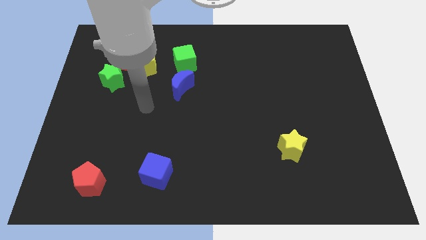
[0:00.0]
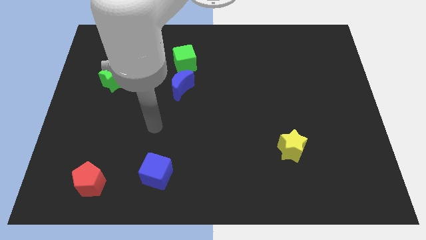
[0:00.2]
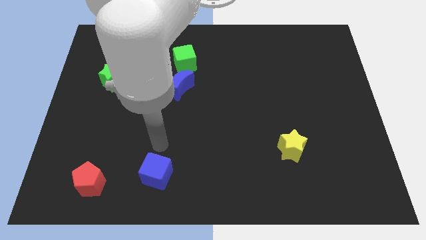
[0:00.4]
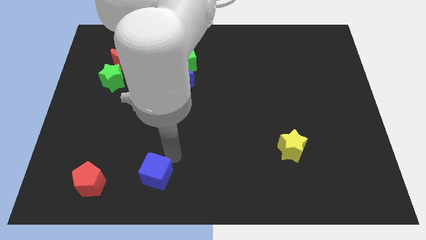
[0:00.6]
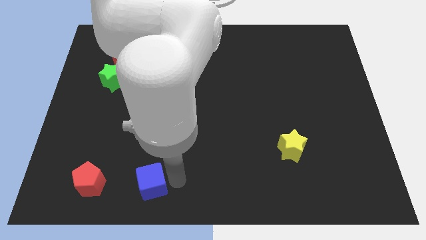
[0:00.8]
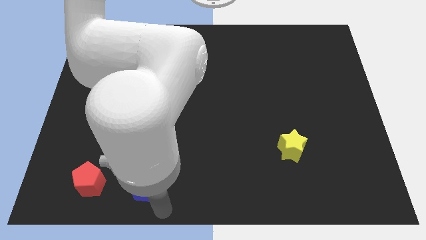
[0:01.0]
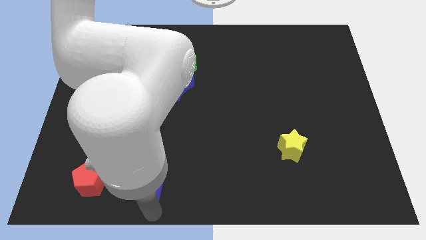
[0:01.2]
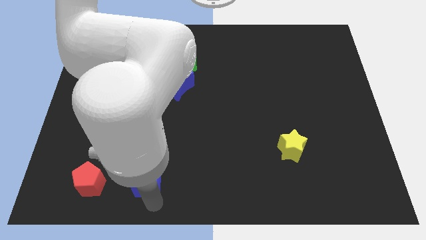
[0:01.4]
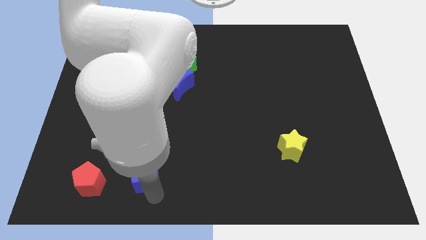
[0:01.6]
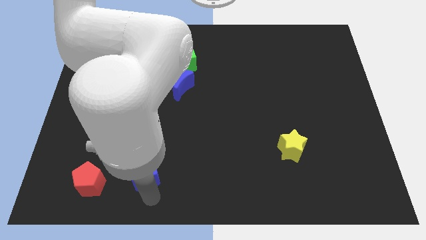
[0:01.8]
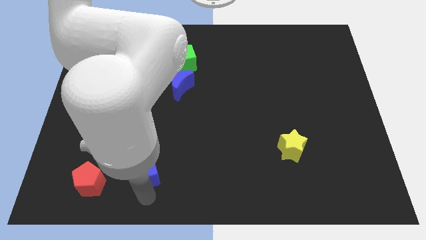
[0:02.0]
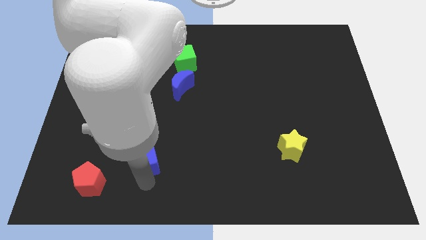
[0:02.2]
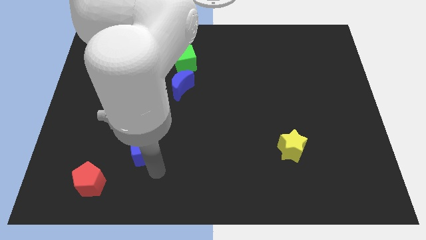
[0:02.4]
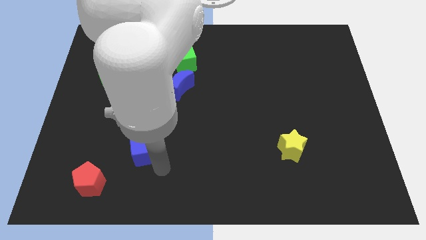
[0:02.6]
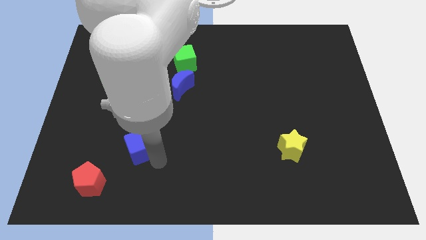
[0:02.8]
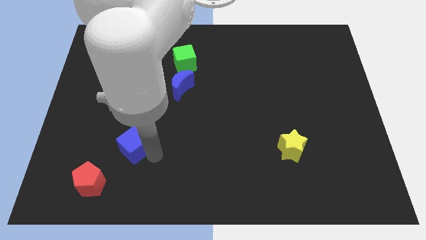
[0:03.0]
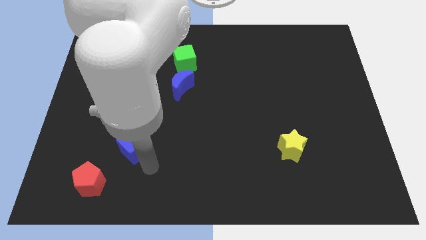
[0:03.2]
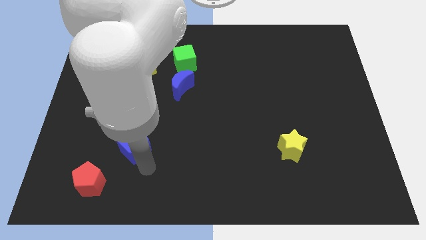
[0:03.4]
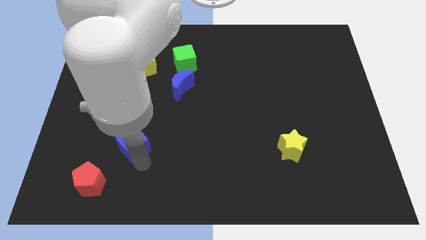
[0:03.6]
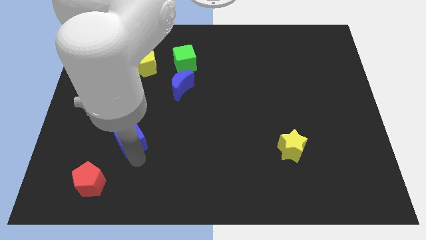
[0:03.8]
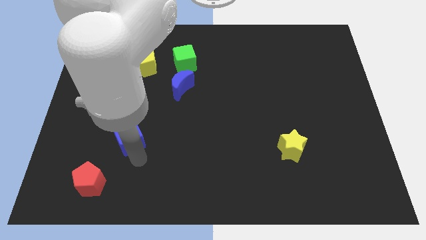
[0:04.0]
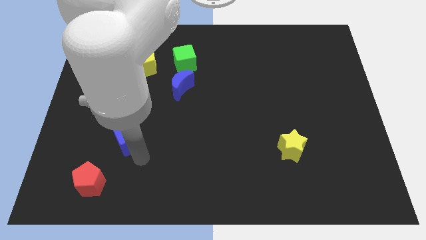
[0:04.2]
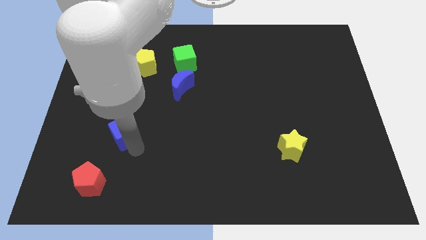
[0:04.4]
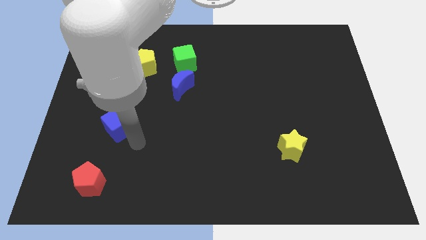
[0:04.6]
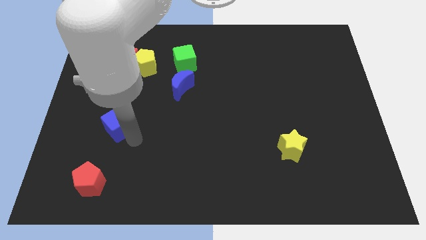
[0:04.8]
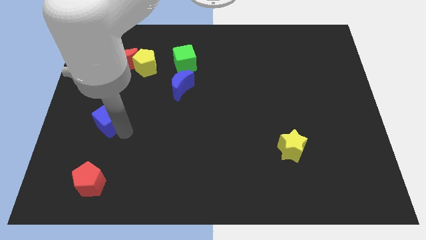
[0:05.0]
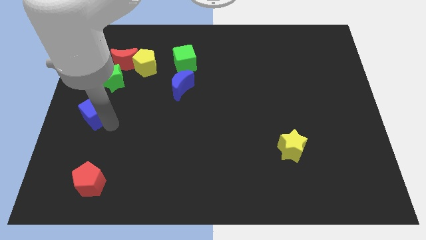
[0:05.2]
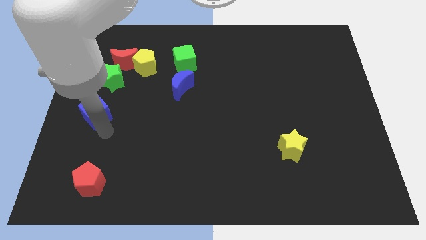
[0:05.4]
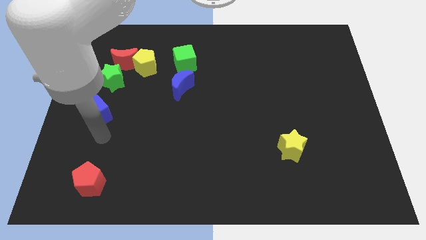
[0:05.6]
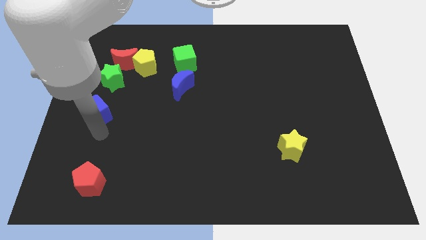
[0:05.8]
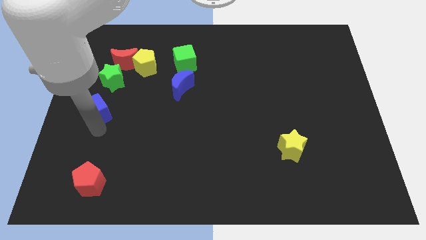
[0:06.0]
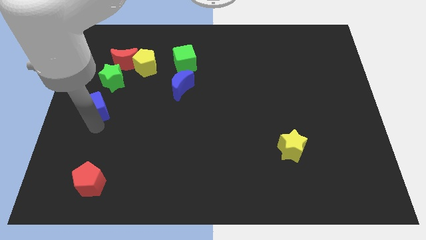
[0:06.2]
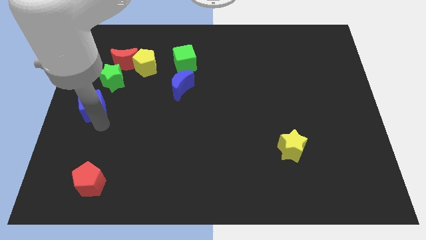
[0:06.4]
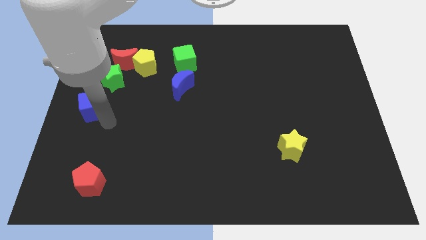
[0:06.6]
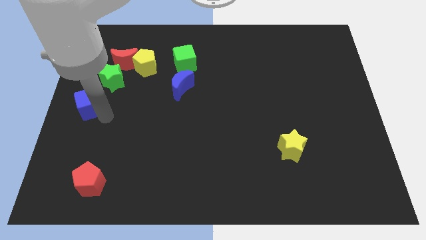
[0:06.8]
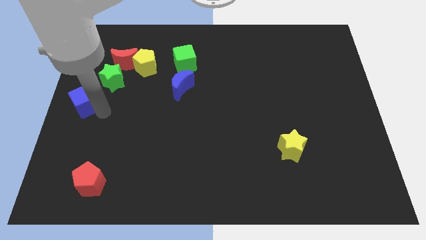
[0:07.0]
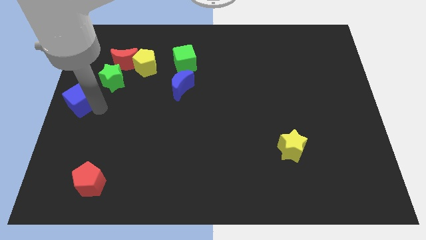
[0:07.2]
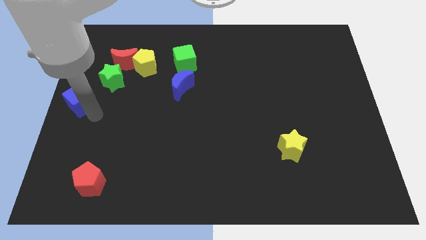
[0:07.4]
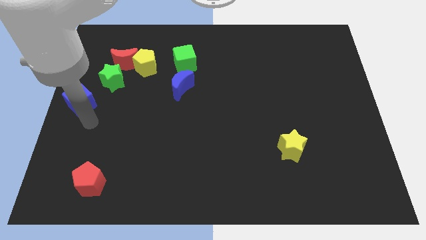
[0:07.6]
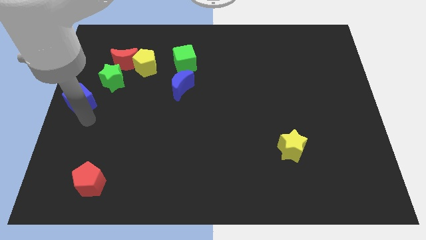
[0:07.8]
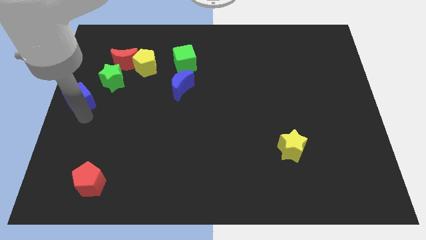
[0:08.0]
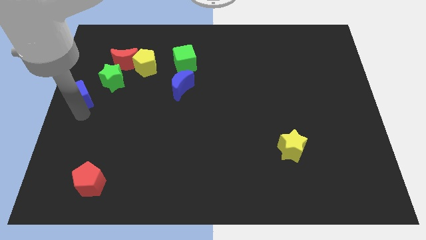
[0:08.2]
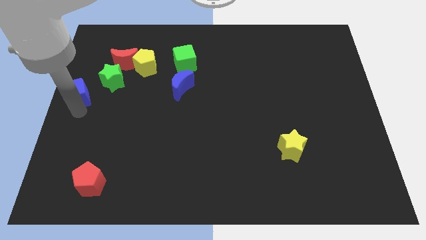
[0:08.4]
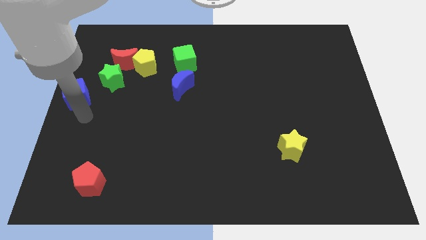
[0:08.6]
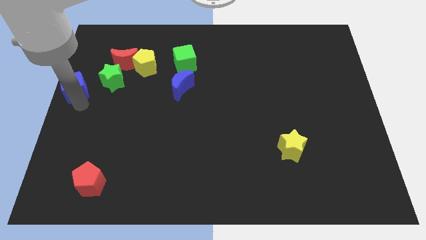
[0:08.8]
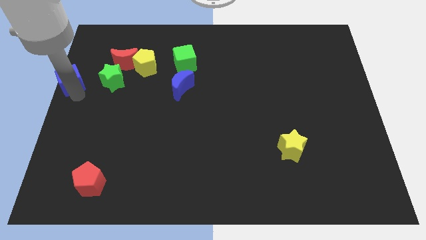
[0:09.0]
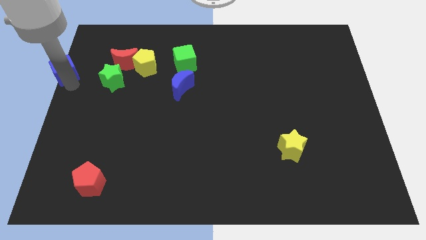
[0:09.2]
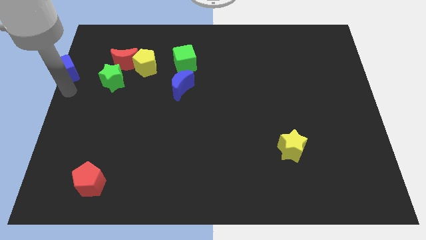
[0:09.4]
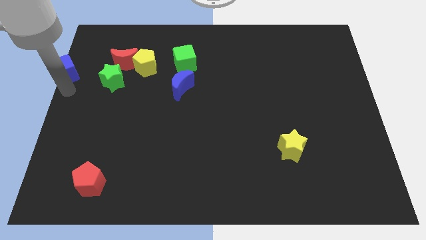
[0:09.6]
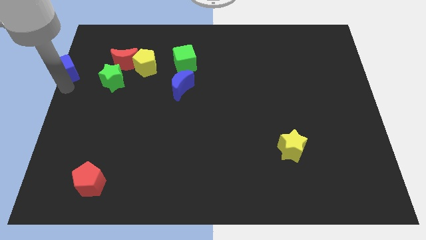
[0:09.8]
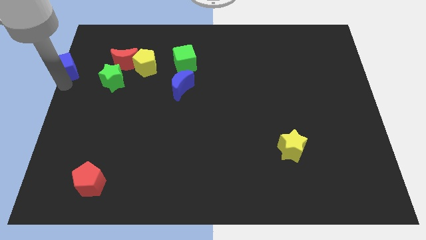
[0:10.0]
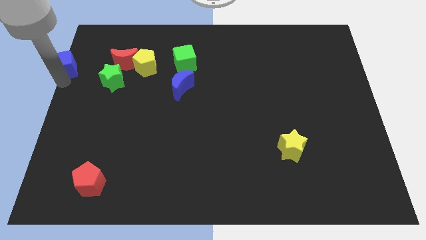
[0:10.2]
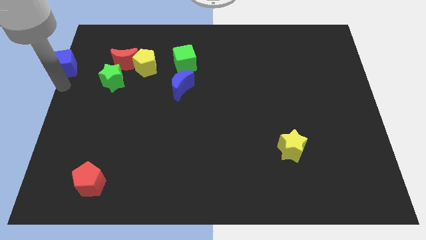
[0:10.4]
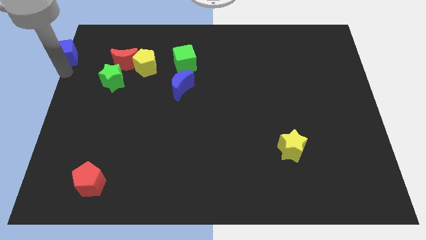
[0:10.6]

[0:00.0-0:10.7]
push the blue cube to the top left
